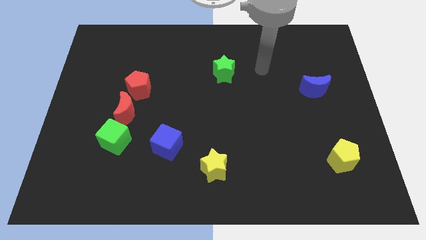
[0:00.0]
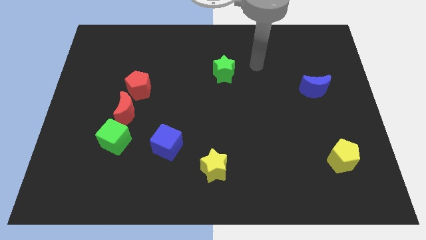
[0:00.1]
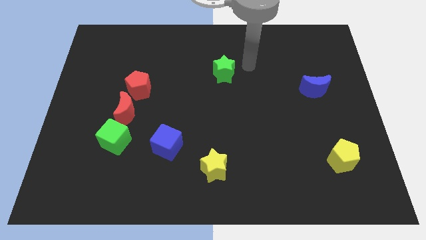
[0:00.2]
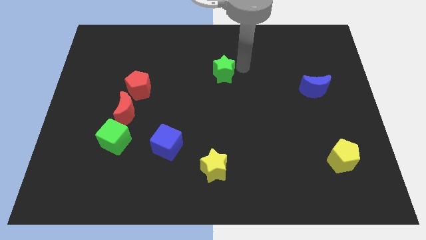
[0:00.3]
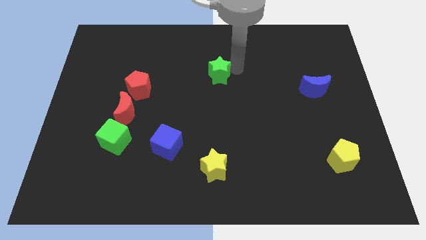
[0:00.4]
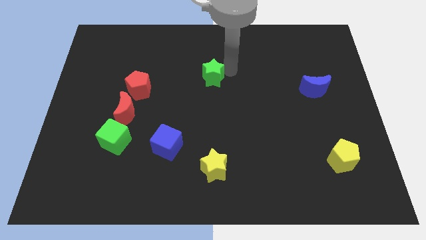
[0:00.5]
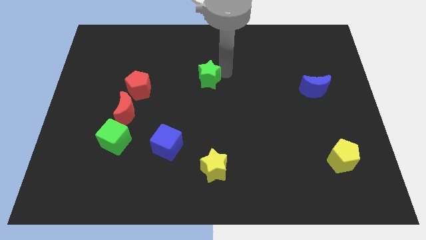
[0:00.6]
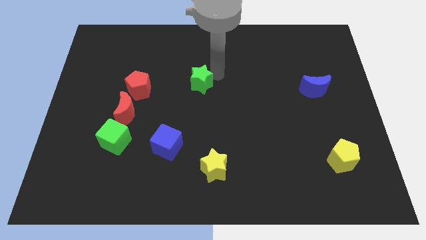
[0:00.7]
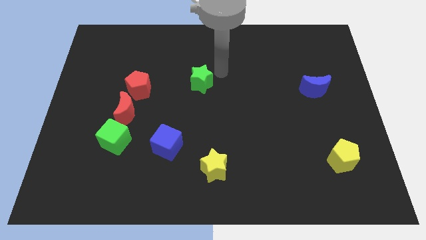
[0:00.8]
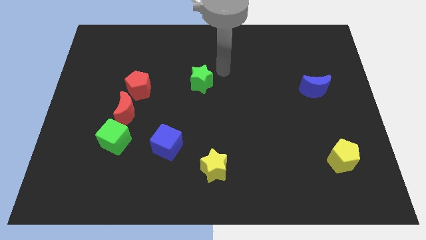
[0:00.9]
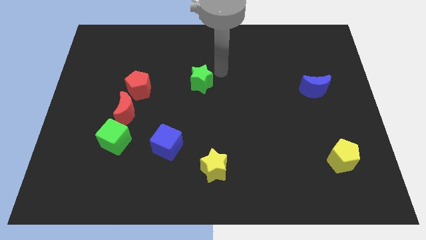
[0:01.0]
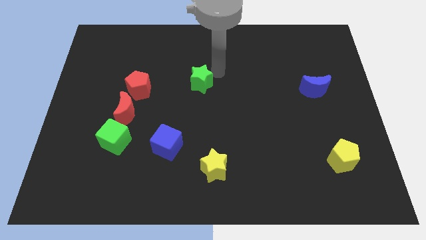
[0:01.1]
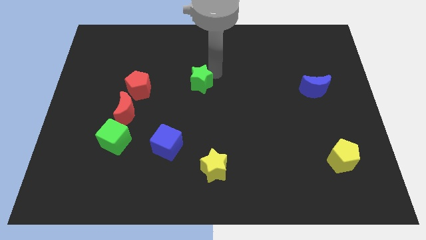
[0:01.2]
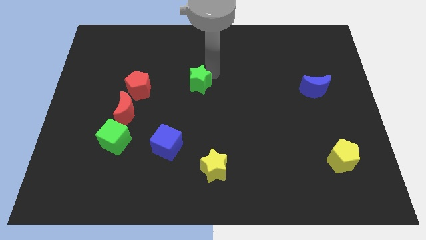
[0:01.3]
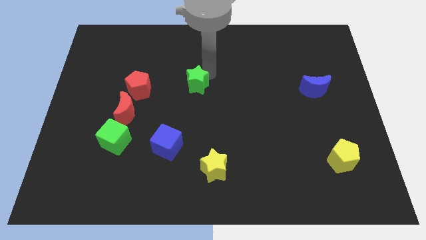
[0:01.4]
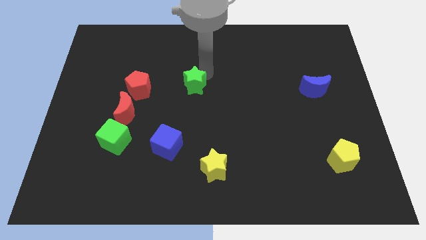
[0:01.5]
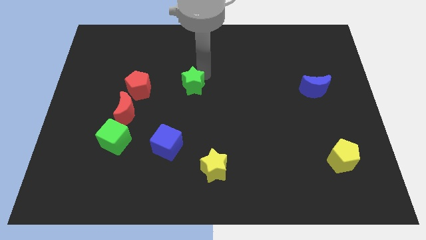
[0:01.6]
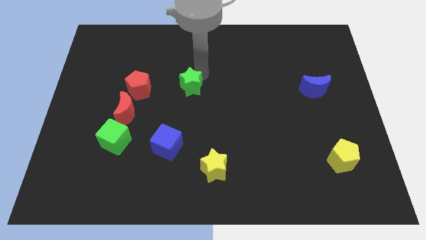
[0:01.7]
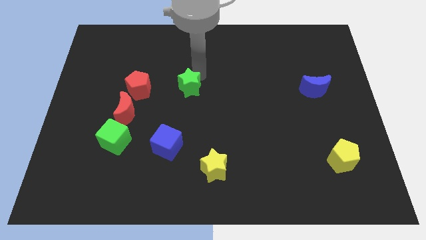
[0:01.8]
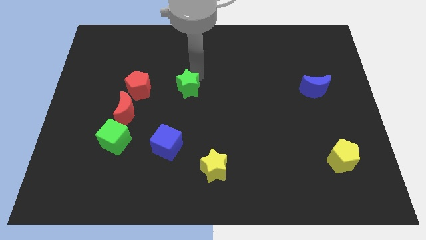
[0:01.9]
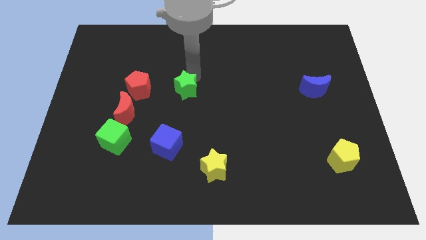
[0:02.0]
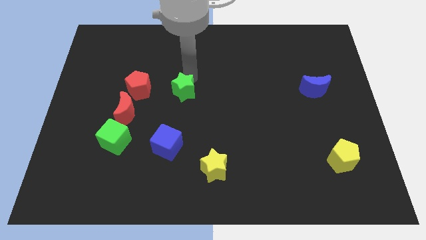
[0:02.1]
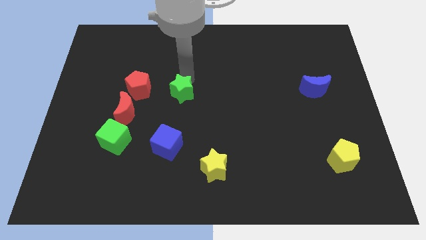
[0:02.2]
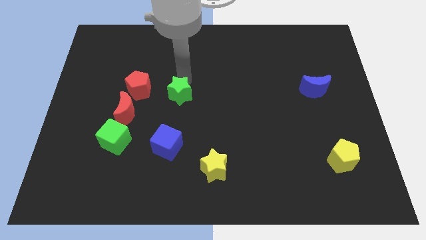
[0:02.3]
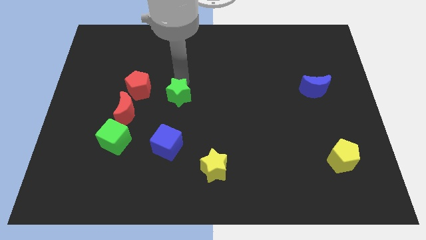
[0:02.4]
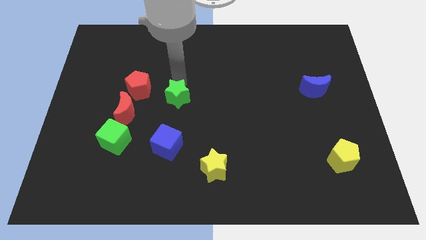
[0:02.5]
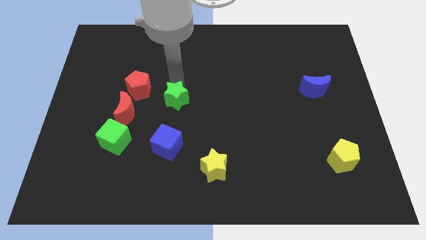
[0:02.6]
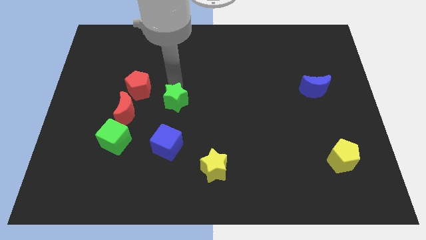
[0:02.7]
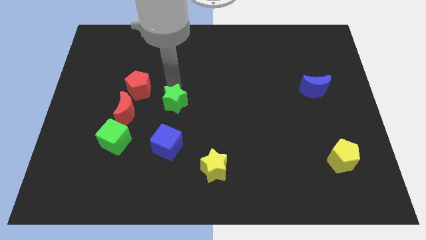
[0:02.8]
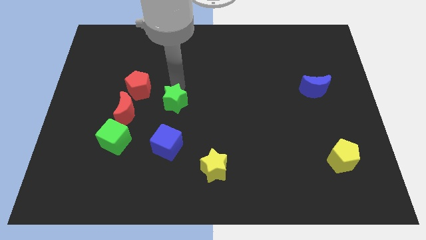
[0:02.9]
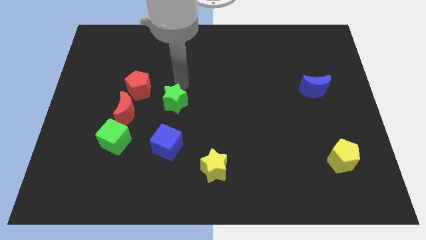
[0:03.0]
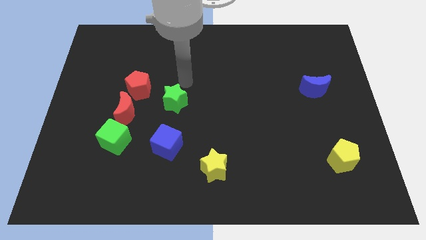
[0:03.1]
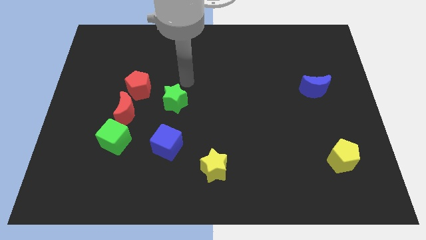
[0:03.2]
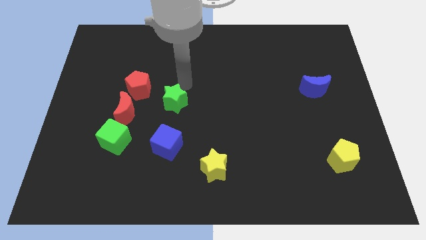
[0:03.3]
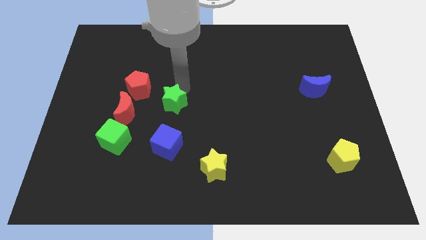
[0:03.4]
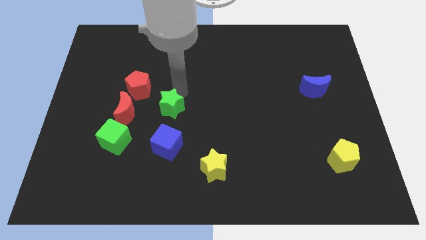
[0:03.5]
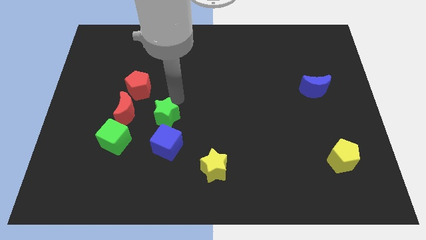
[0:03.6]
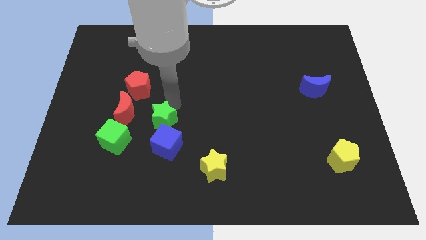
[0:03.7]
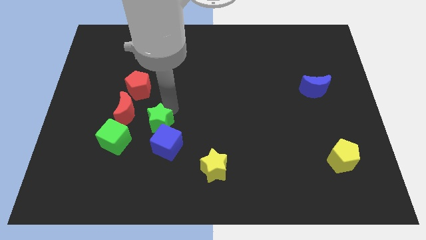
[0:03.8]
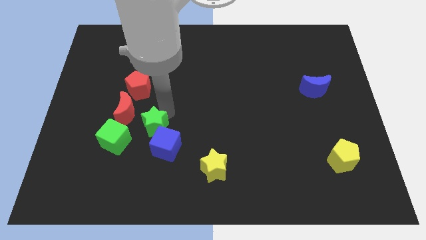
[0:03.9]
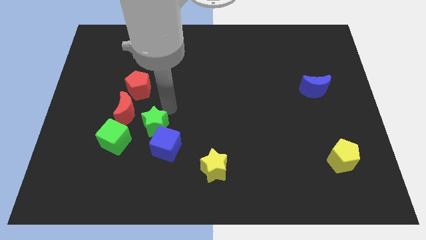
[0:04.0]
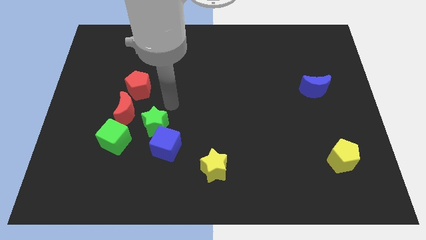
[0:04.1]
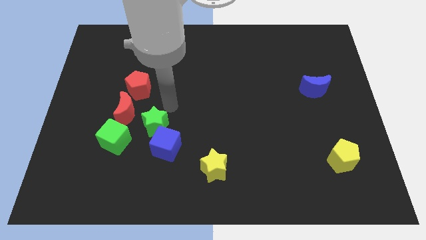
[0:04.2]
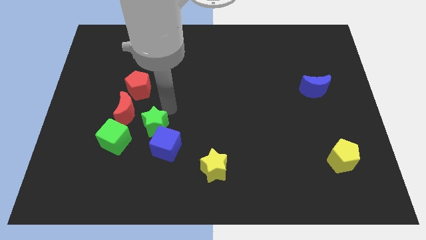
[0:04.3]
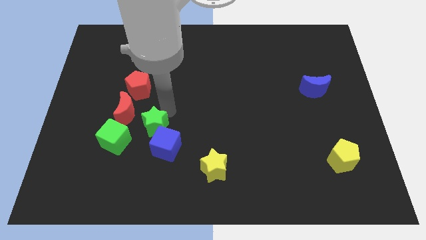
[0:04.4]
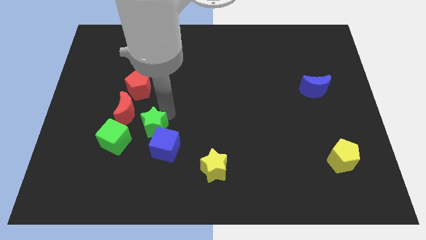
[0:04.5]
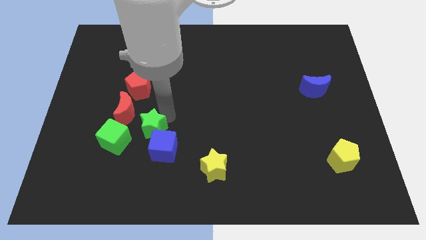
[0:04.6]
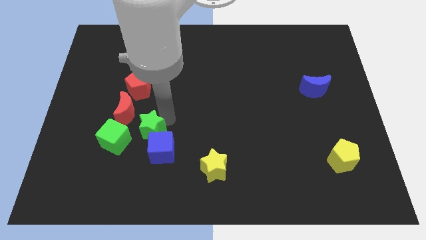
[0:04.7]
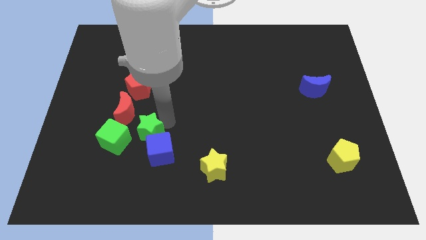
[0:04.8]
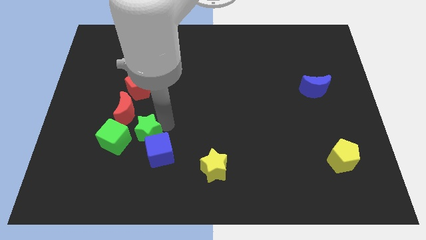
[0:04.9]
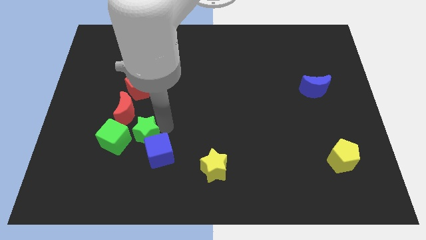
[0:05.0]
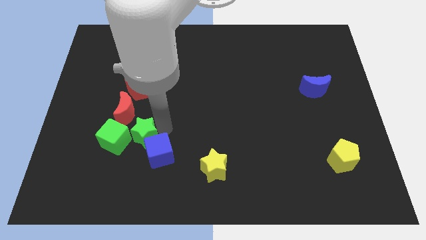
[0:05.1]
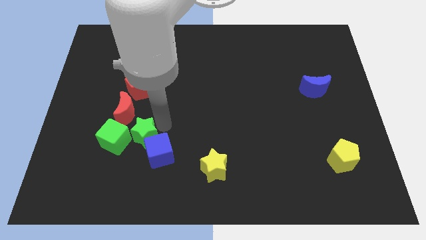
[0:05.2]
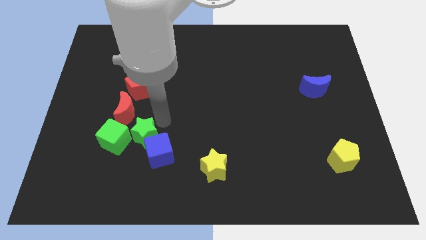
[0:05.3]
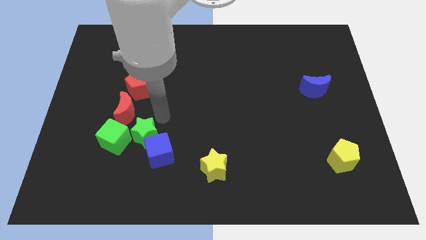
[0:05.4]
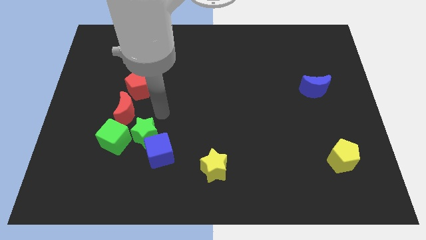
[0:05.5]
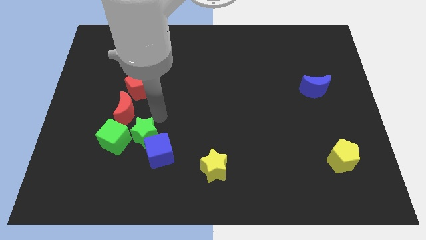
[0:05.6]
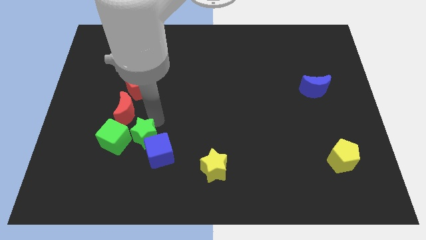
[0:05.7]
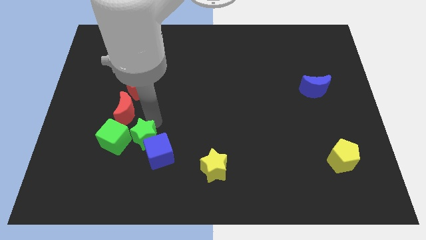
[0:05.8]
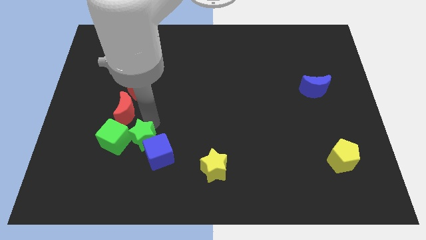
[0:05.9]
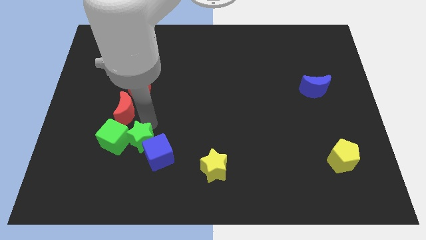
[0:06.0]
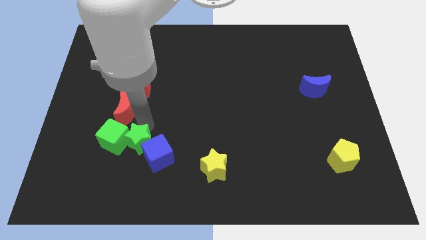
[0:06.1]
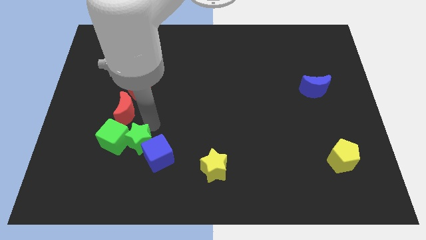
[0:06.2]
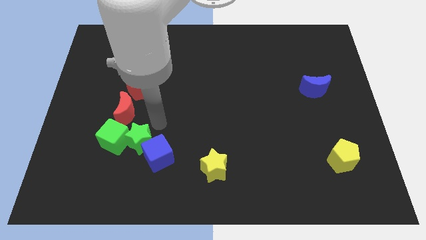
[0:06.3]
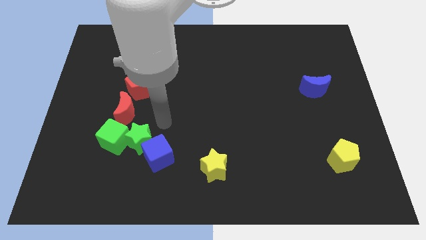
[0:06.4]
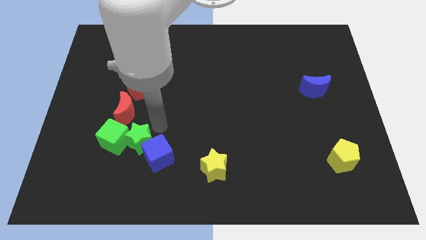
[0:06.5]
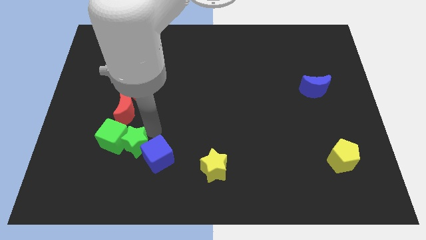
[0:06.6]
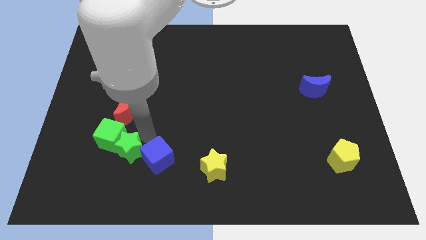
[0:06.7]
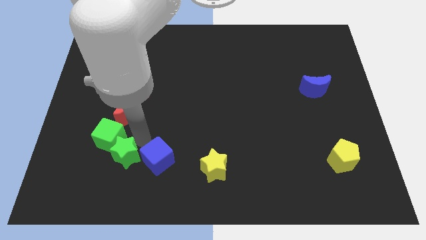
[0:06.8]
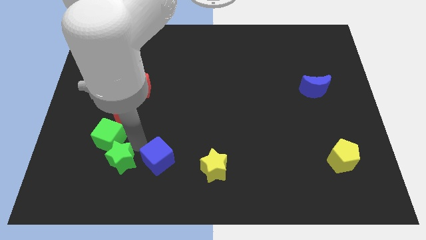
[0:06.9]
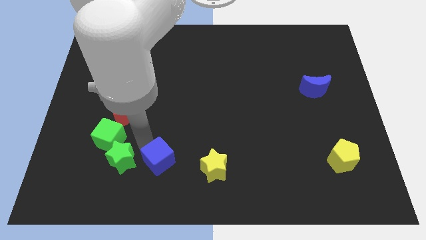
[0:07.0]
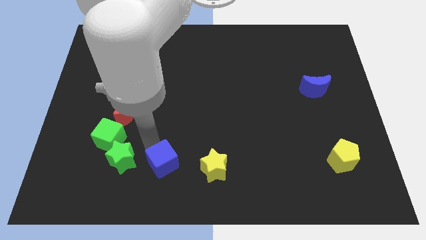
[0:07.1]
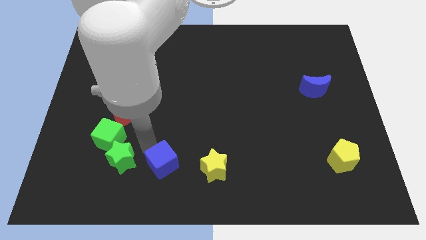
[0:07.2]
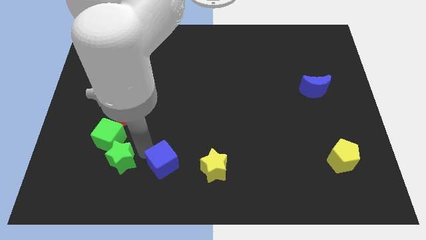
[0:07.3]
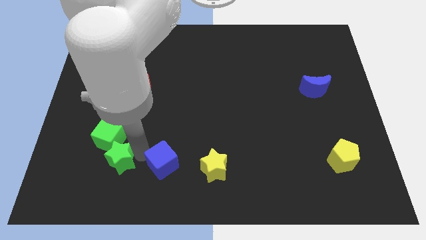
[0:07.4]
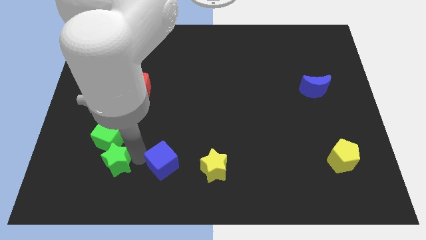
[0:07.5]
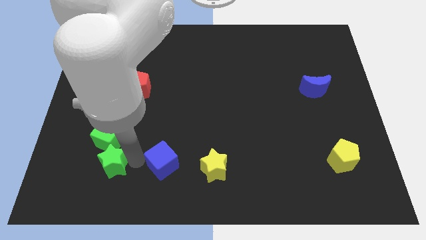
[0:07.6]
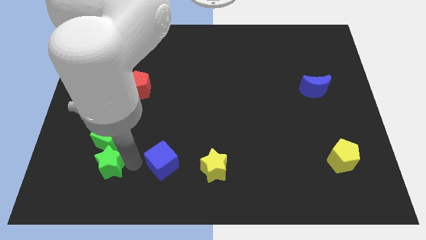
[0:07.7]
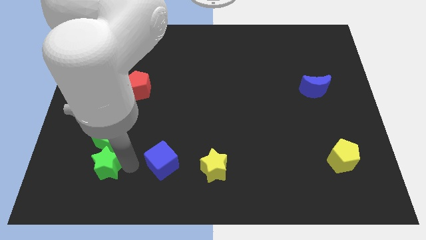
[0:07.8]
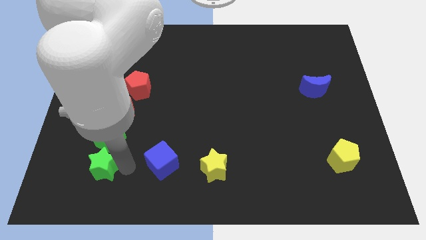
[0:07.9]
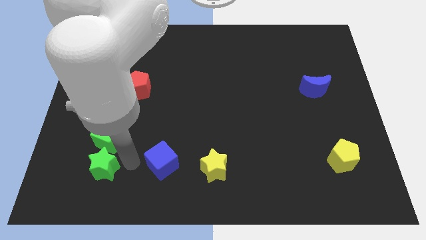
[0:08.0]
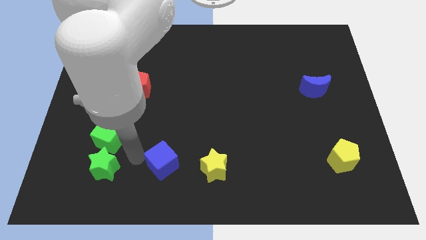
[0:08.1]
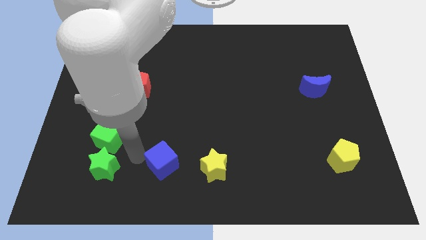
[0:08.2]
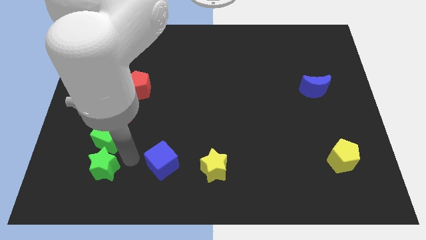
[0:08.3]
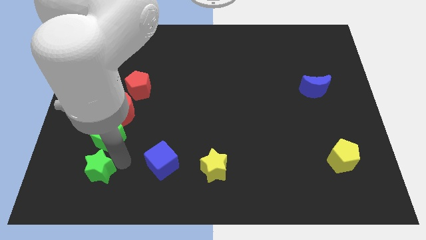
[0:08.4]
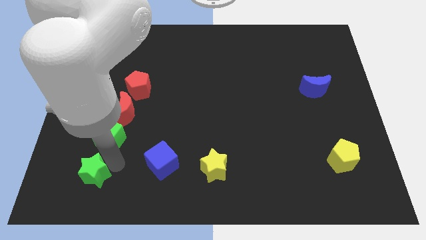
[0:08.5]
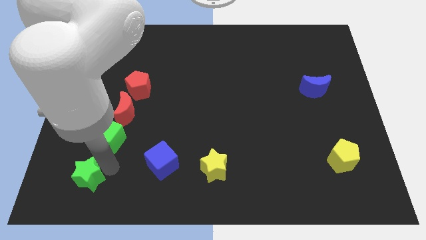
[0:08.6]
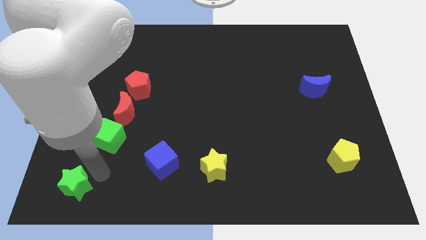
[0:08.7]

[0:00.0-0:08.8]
move the green star to the bottom left corner
